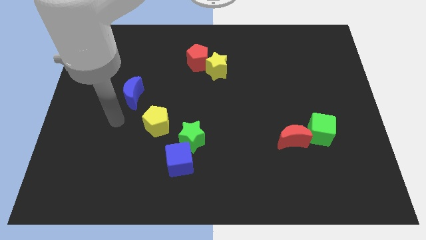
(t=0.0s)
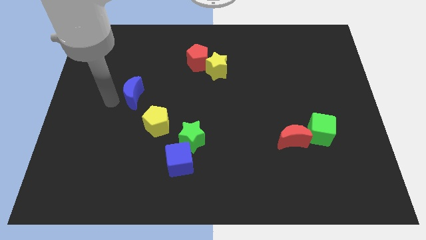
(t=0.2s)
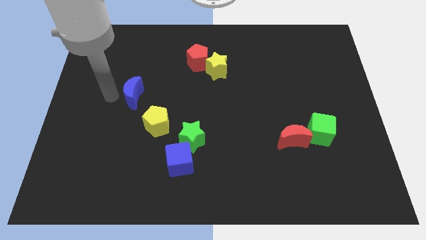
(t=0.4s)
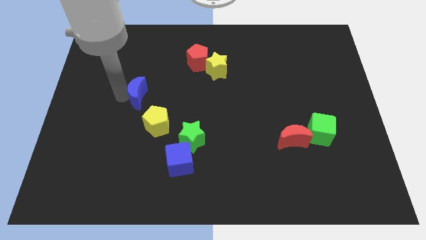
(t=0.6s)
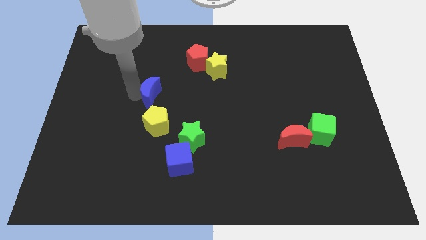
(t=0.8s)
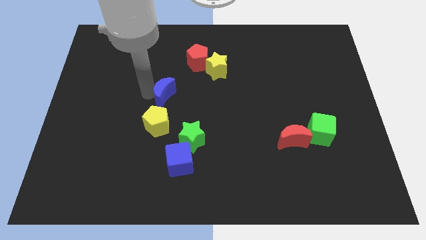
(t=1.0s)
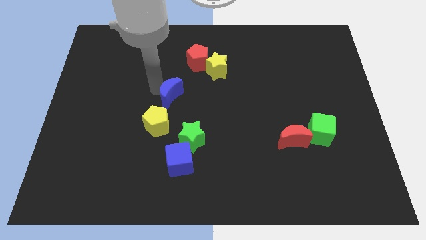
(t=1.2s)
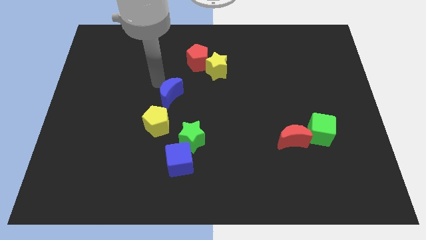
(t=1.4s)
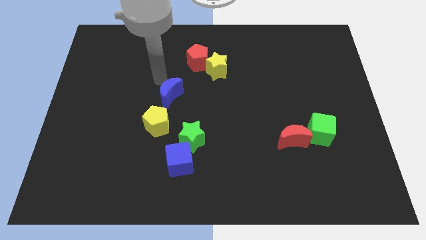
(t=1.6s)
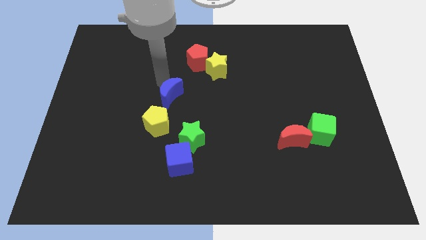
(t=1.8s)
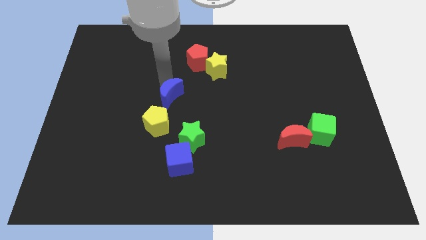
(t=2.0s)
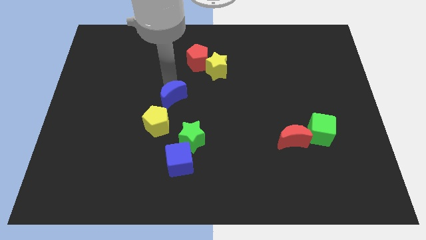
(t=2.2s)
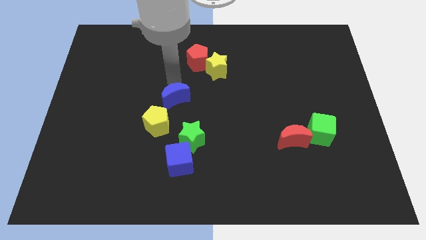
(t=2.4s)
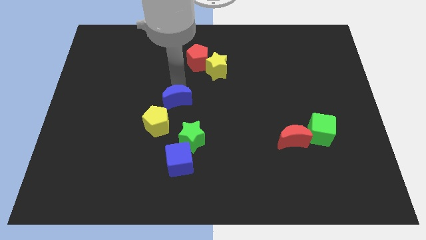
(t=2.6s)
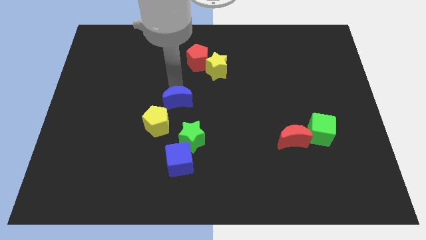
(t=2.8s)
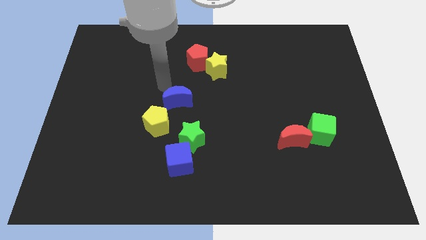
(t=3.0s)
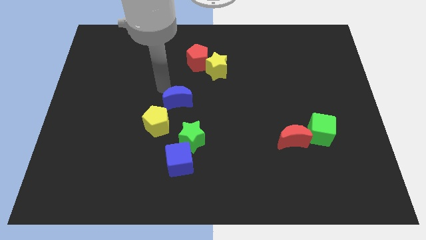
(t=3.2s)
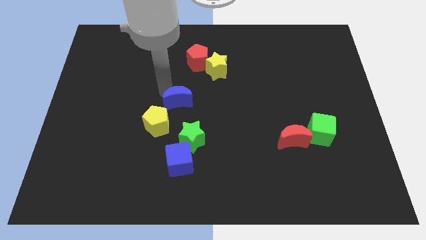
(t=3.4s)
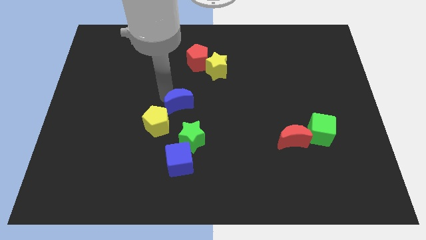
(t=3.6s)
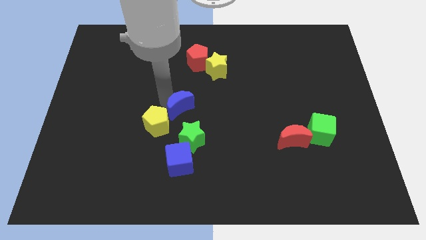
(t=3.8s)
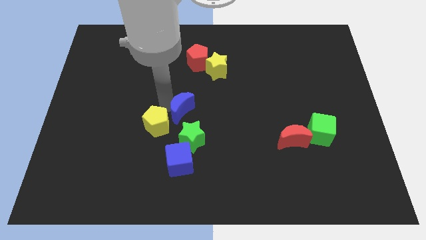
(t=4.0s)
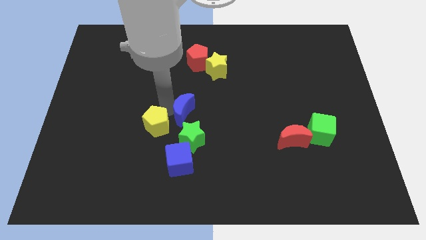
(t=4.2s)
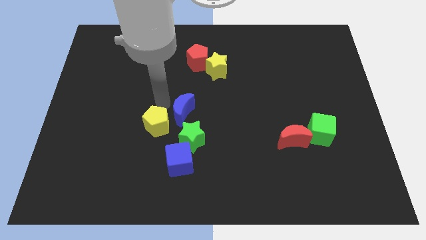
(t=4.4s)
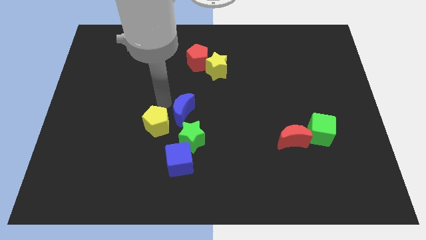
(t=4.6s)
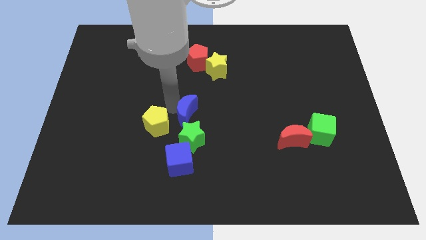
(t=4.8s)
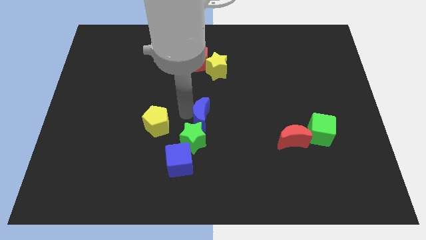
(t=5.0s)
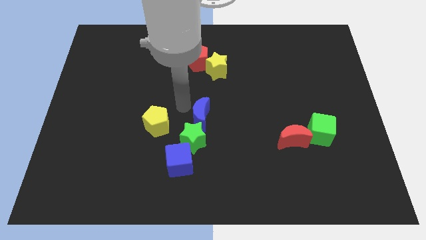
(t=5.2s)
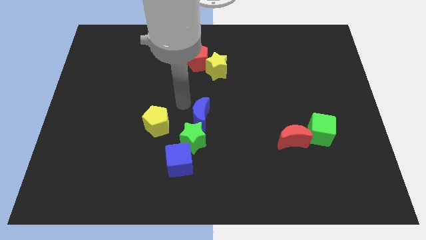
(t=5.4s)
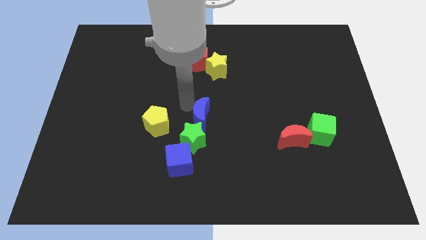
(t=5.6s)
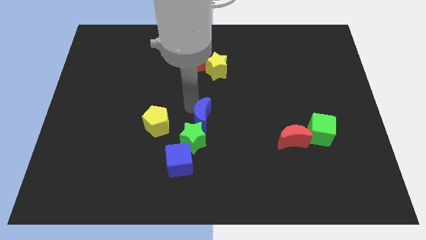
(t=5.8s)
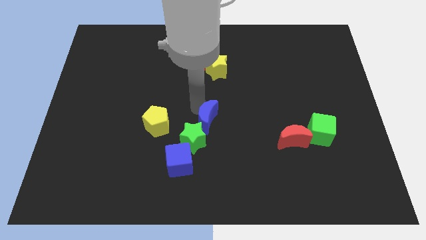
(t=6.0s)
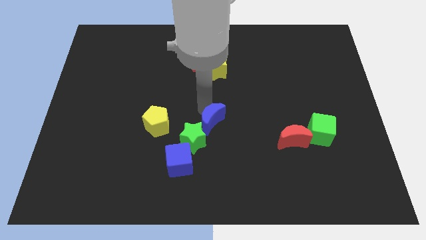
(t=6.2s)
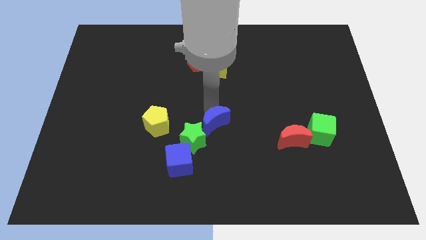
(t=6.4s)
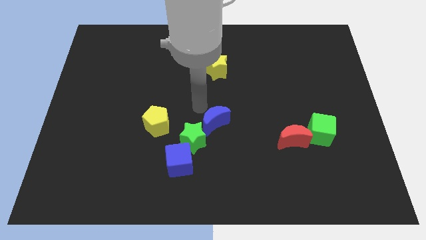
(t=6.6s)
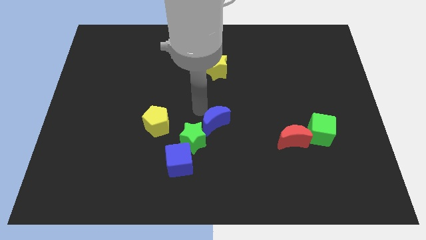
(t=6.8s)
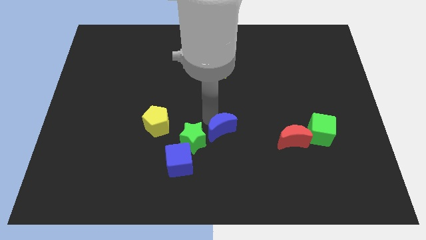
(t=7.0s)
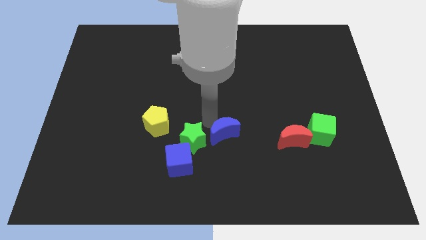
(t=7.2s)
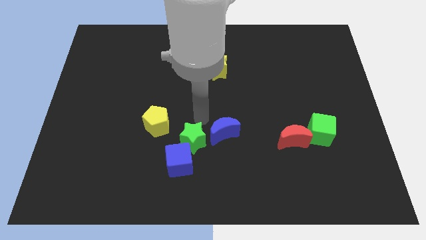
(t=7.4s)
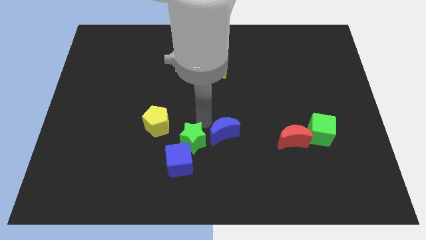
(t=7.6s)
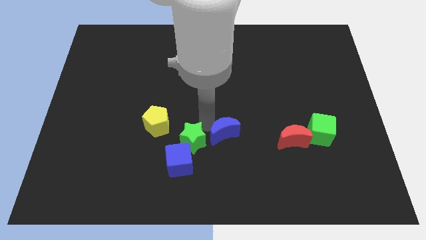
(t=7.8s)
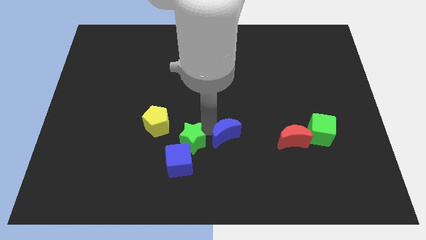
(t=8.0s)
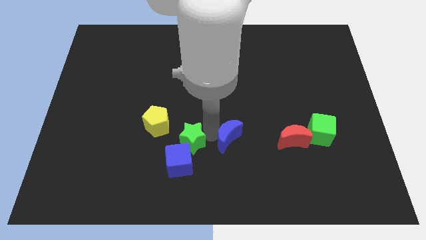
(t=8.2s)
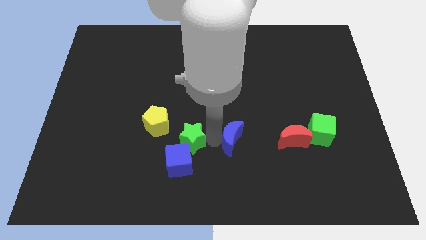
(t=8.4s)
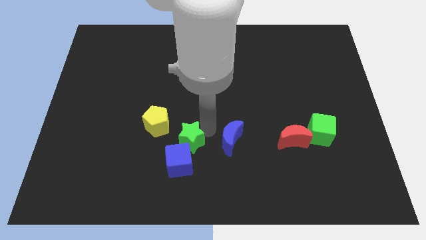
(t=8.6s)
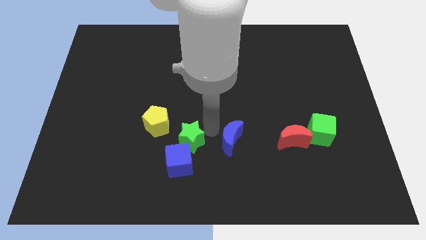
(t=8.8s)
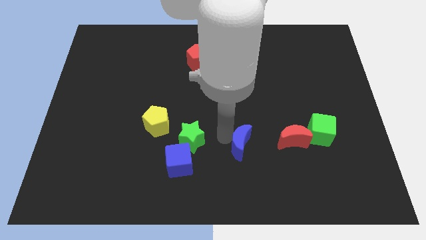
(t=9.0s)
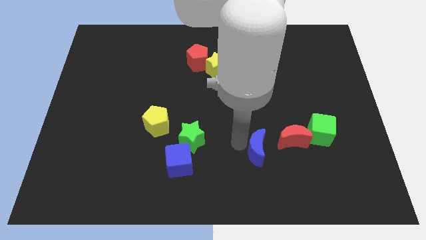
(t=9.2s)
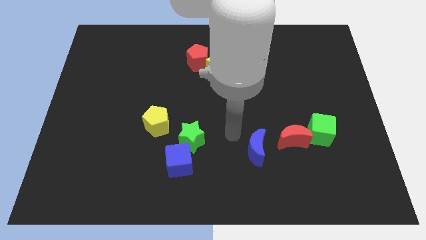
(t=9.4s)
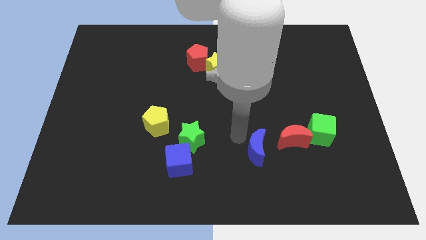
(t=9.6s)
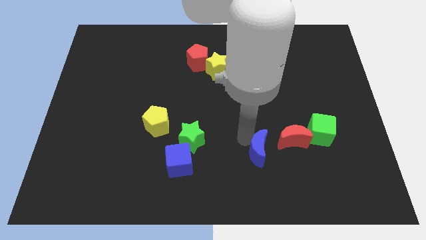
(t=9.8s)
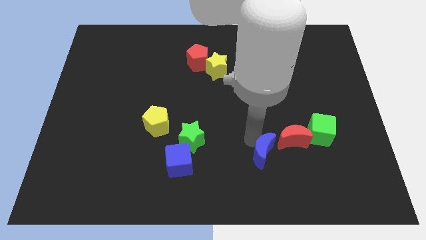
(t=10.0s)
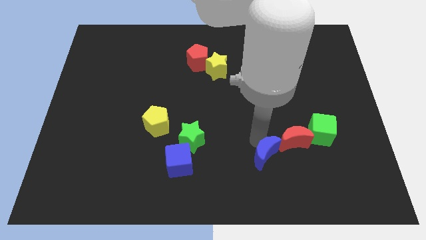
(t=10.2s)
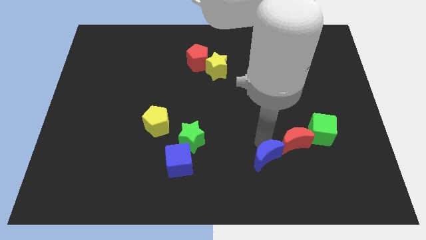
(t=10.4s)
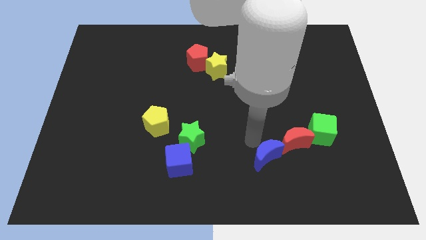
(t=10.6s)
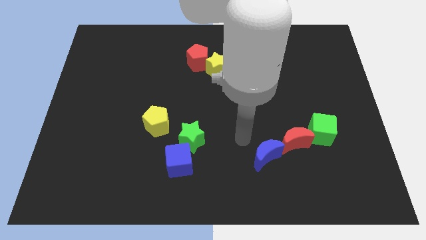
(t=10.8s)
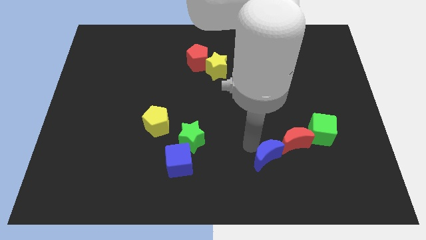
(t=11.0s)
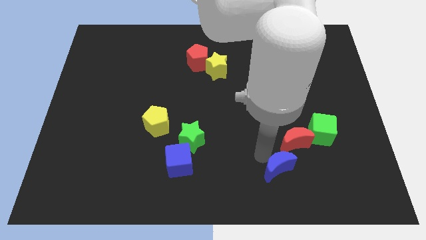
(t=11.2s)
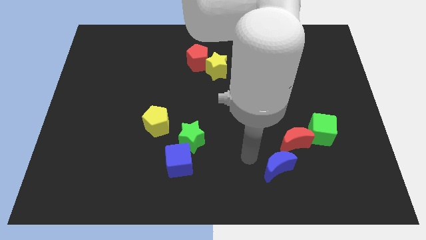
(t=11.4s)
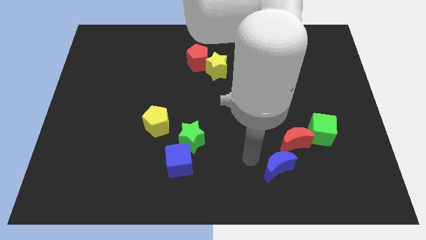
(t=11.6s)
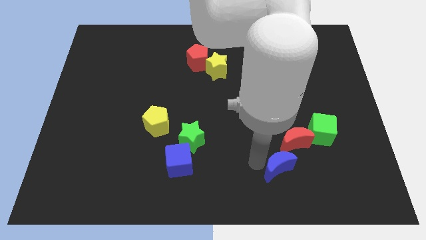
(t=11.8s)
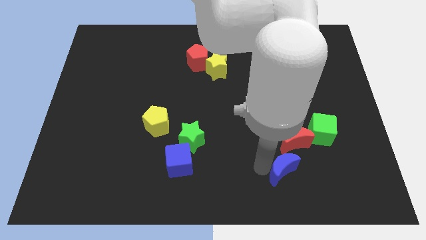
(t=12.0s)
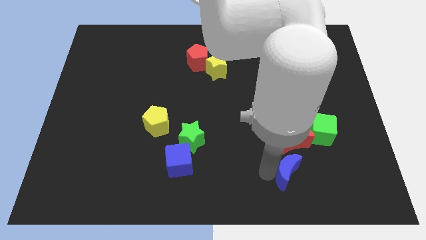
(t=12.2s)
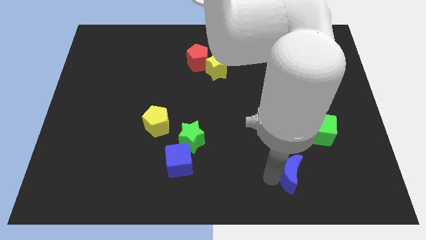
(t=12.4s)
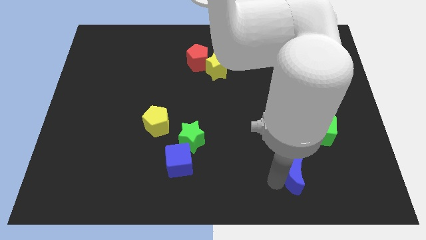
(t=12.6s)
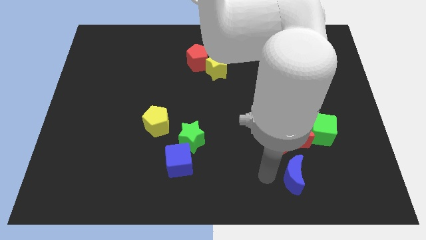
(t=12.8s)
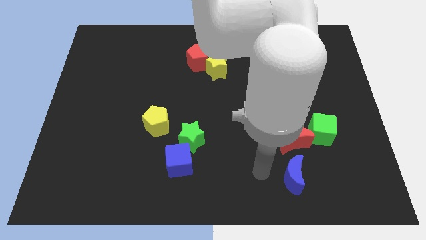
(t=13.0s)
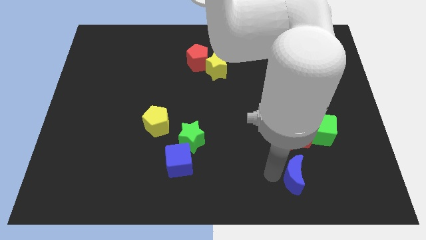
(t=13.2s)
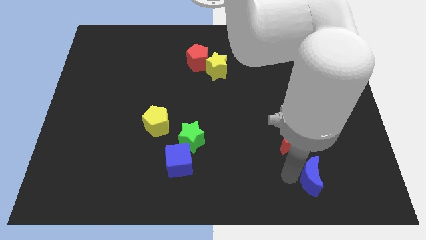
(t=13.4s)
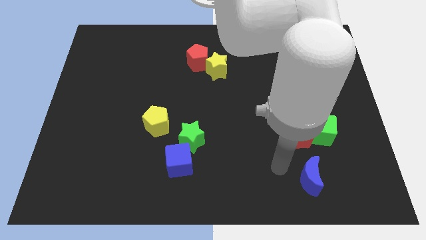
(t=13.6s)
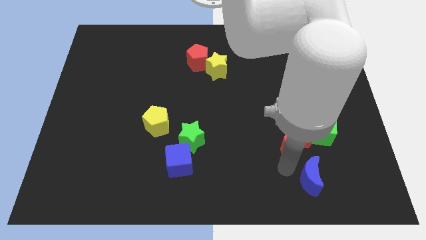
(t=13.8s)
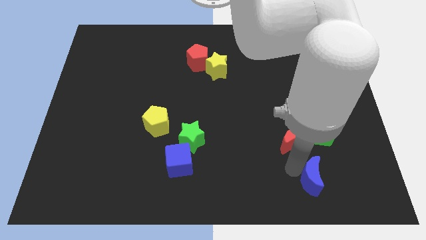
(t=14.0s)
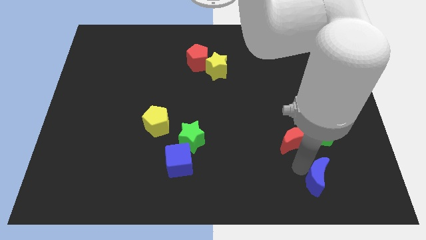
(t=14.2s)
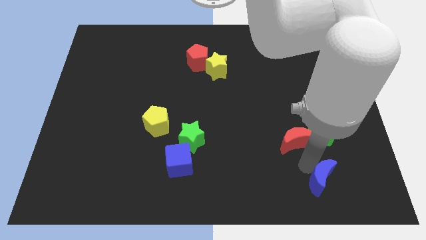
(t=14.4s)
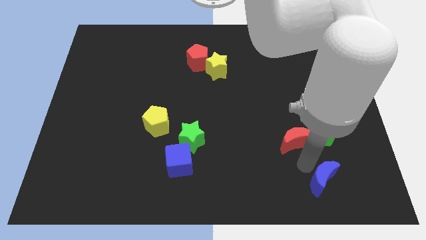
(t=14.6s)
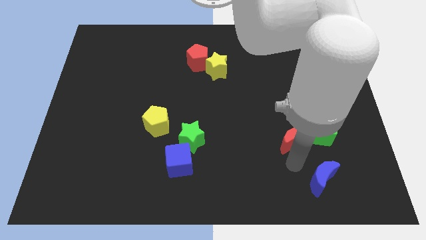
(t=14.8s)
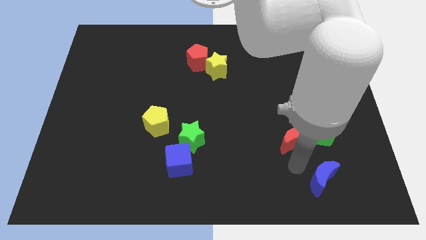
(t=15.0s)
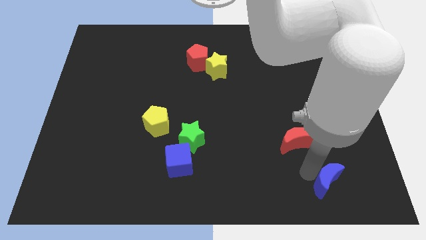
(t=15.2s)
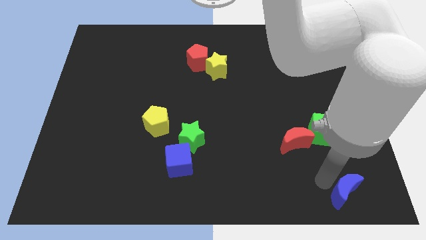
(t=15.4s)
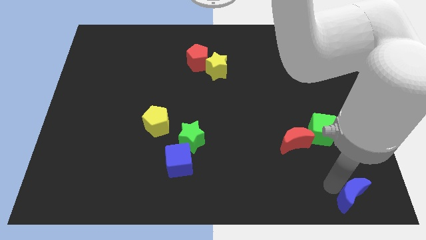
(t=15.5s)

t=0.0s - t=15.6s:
move the blue moon to the bottom right
